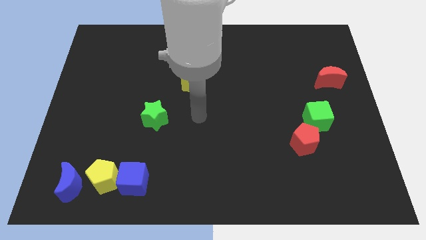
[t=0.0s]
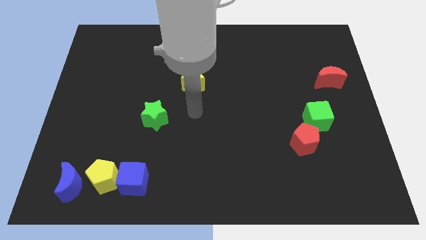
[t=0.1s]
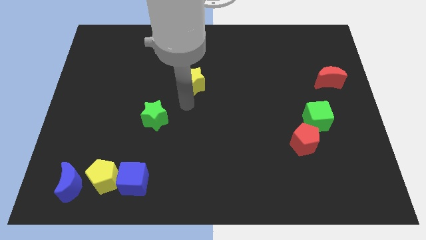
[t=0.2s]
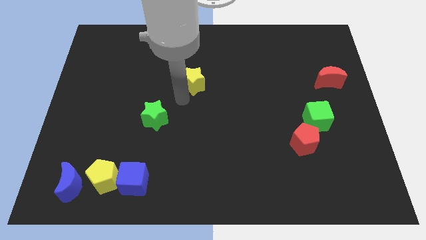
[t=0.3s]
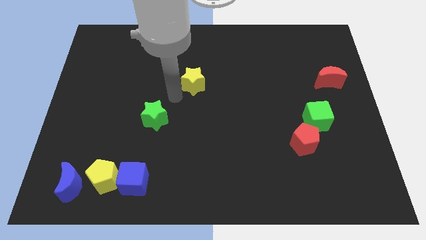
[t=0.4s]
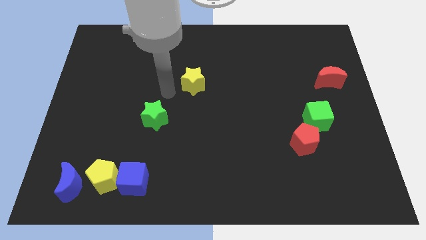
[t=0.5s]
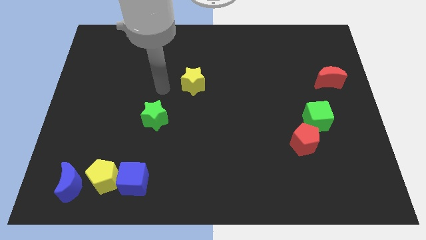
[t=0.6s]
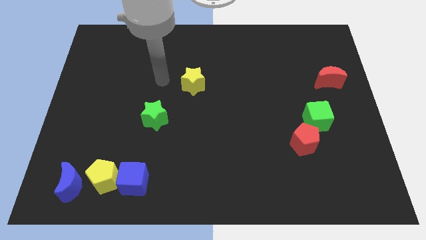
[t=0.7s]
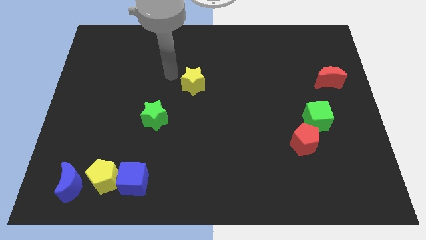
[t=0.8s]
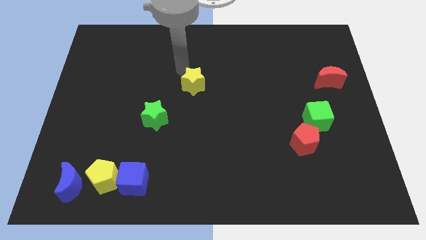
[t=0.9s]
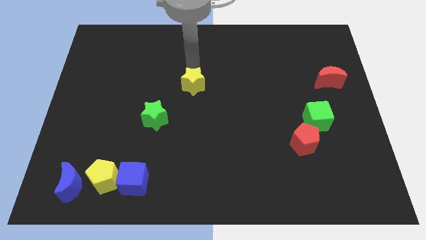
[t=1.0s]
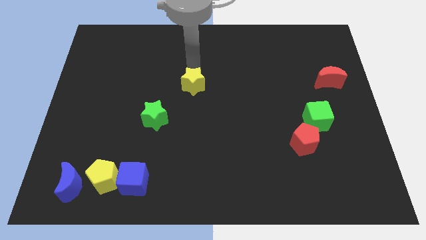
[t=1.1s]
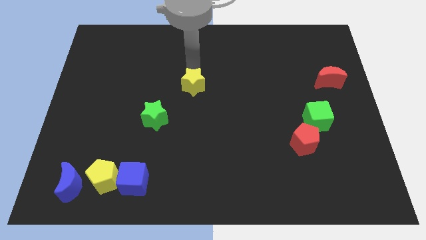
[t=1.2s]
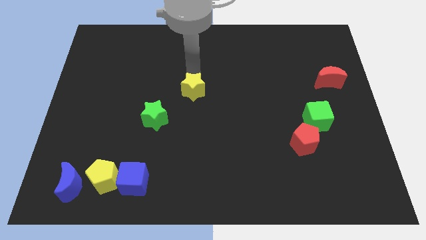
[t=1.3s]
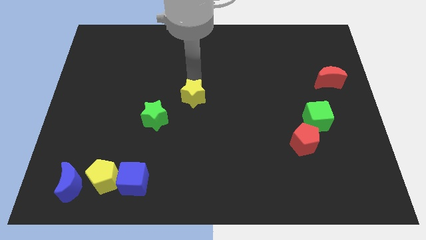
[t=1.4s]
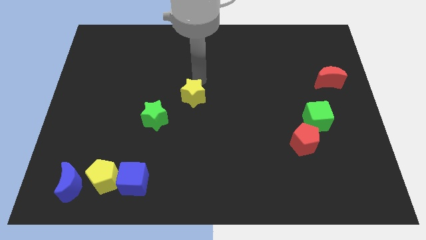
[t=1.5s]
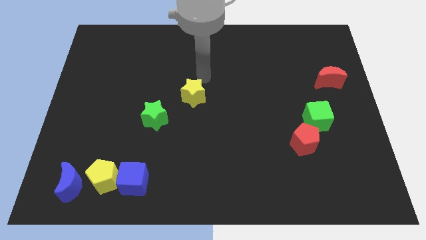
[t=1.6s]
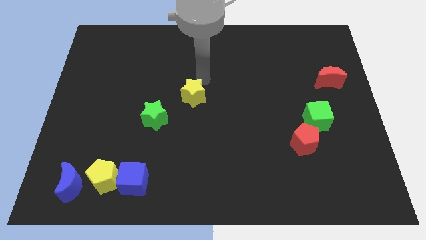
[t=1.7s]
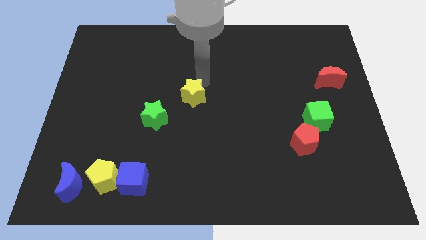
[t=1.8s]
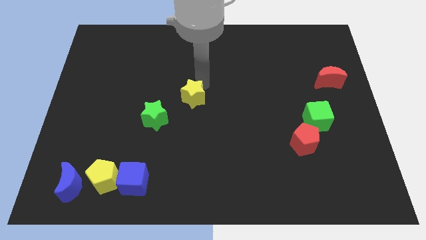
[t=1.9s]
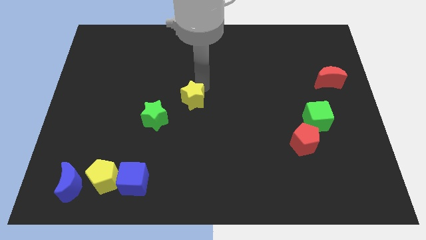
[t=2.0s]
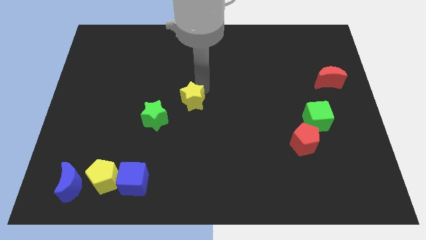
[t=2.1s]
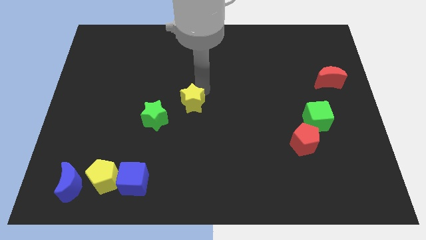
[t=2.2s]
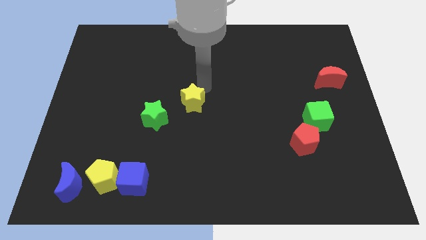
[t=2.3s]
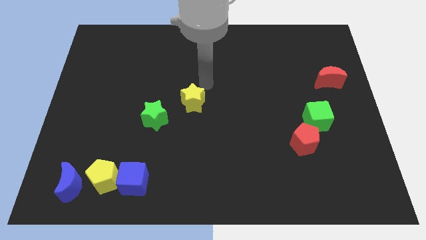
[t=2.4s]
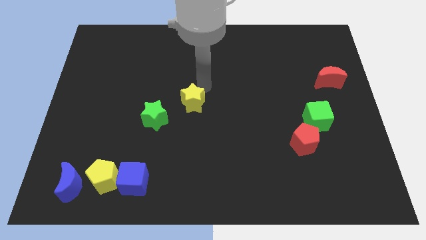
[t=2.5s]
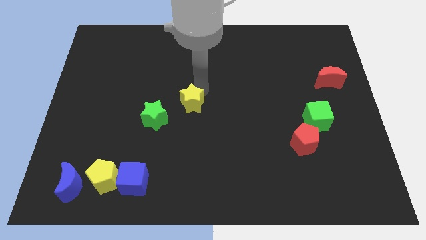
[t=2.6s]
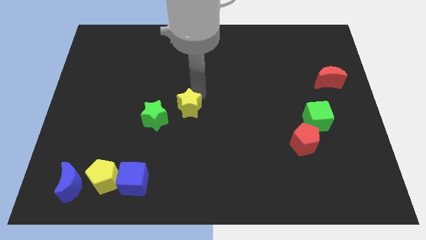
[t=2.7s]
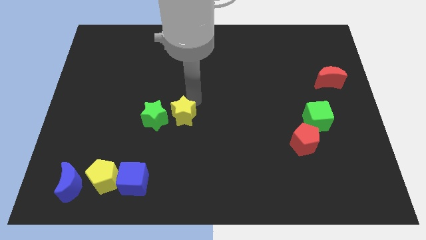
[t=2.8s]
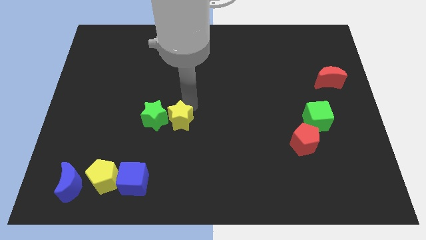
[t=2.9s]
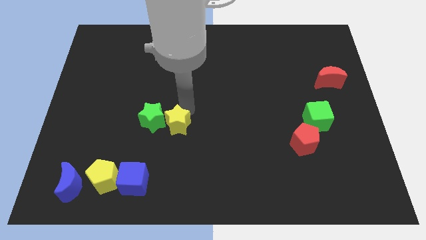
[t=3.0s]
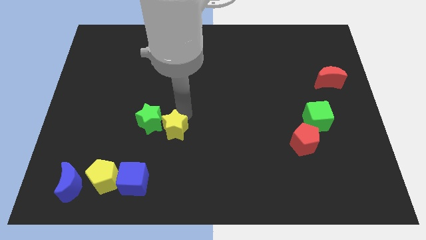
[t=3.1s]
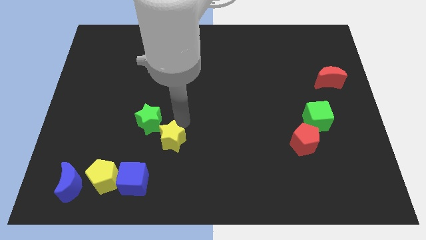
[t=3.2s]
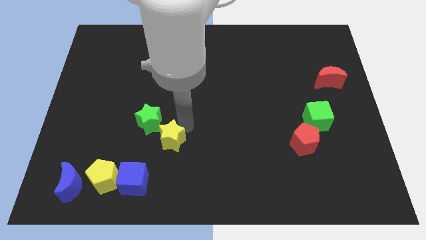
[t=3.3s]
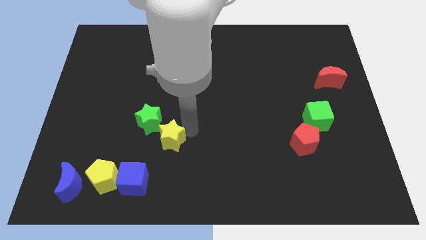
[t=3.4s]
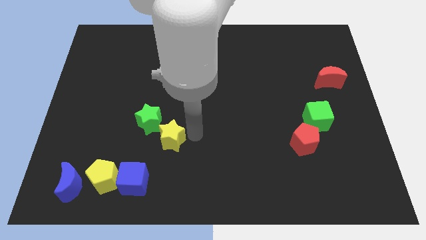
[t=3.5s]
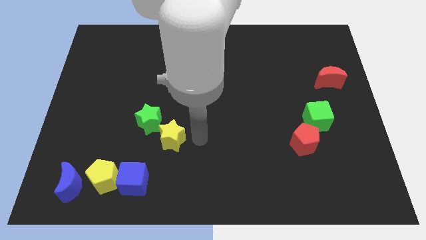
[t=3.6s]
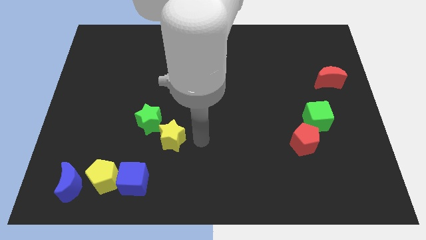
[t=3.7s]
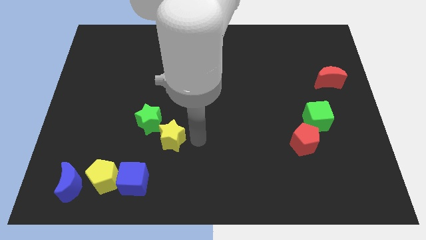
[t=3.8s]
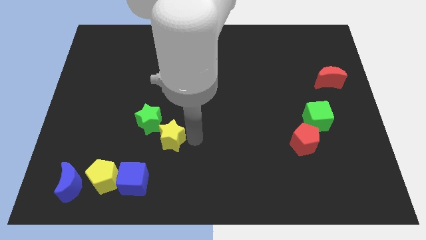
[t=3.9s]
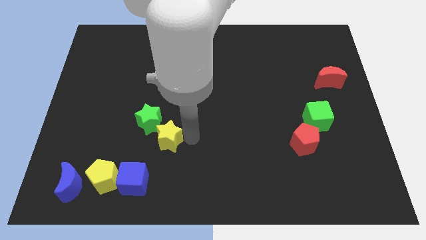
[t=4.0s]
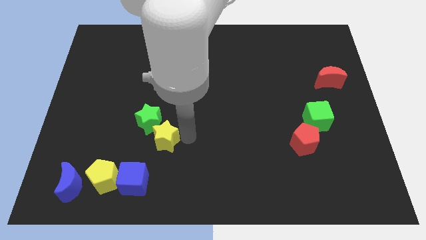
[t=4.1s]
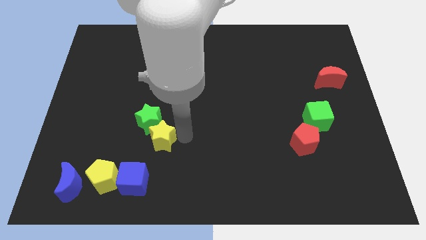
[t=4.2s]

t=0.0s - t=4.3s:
push the yellow star to the top of the blue cube

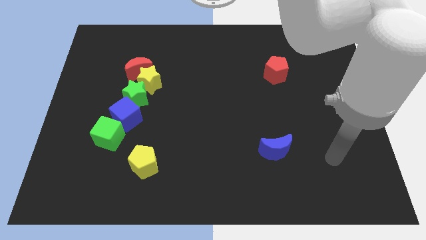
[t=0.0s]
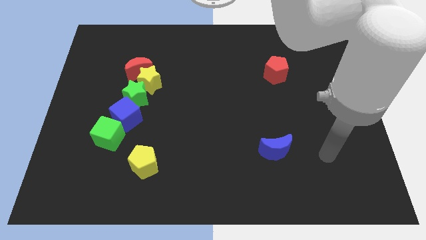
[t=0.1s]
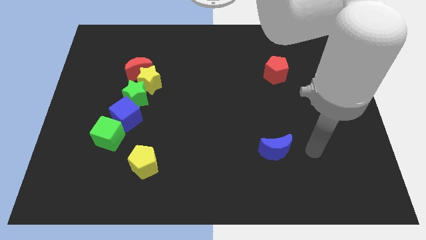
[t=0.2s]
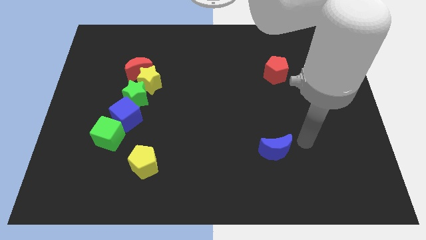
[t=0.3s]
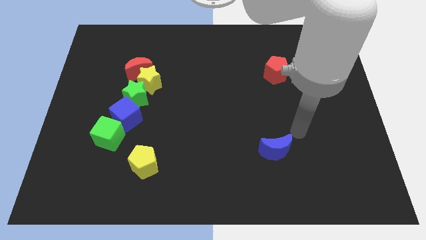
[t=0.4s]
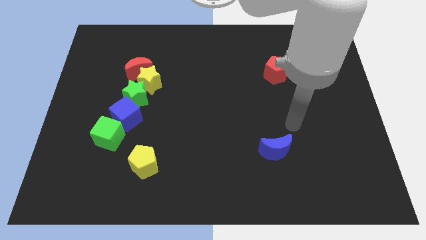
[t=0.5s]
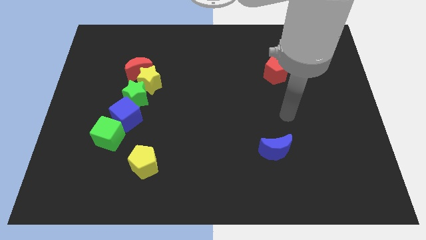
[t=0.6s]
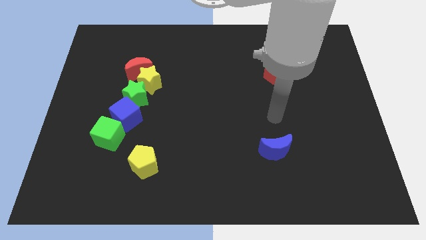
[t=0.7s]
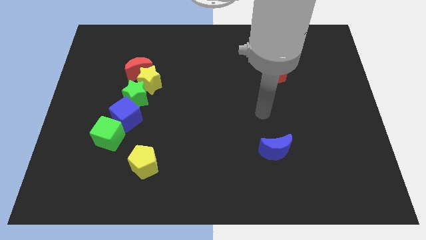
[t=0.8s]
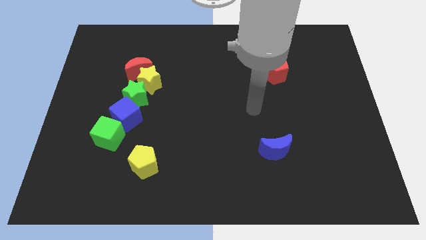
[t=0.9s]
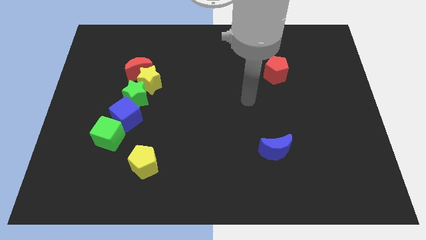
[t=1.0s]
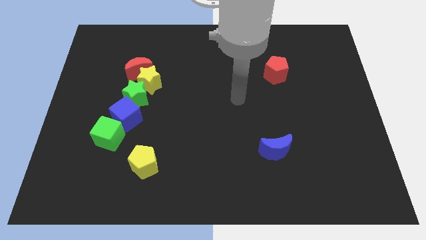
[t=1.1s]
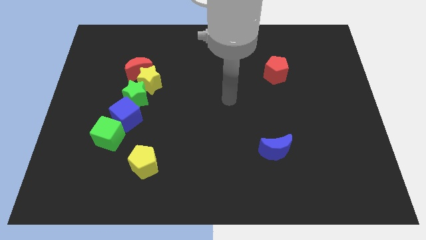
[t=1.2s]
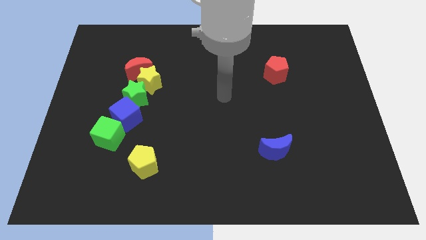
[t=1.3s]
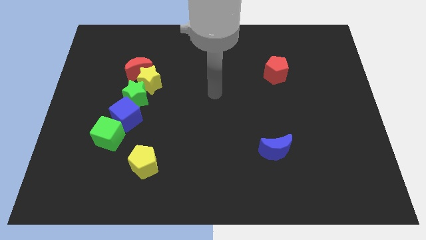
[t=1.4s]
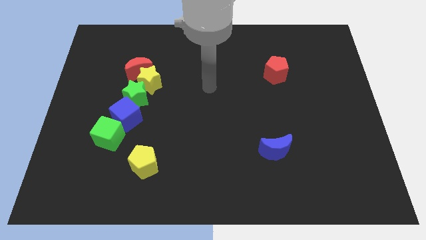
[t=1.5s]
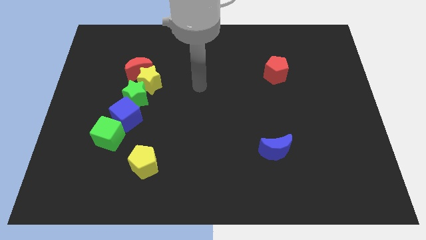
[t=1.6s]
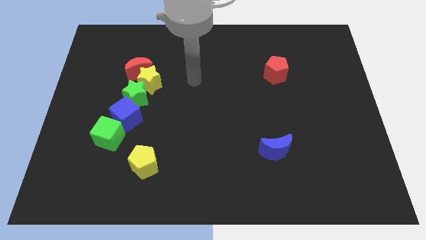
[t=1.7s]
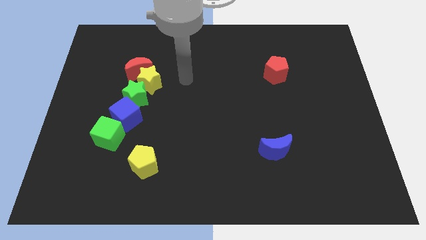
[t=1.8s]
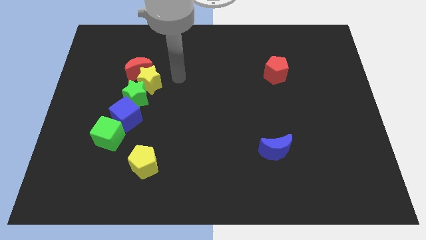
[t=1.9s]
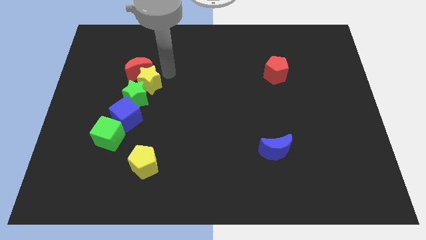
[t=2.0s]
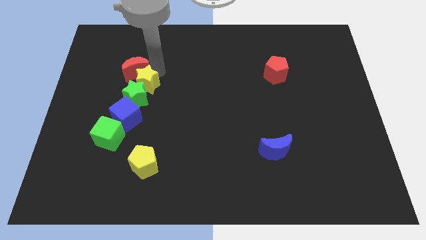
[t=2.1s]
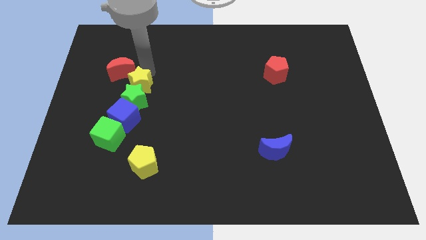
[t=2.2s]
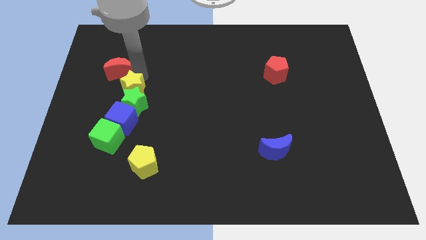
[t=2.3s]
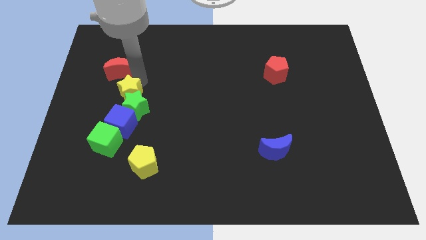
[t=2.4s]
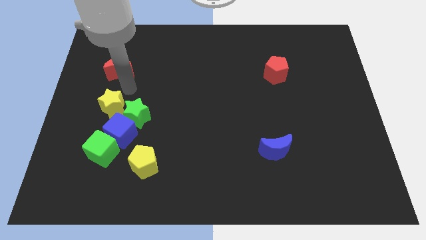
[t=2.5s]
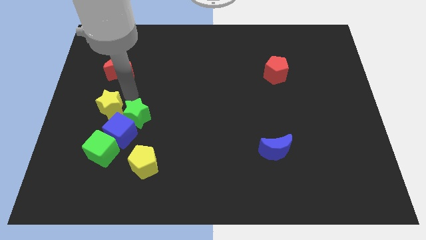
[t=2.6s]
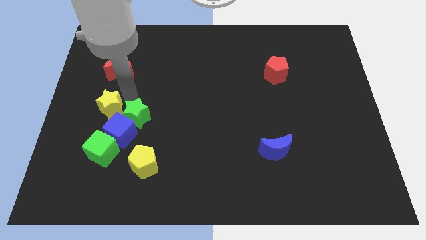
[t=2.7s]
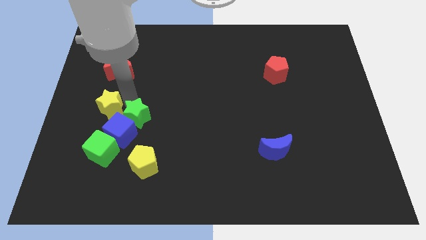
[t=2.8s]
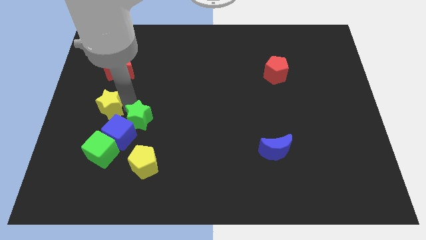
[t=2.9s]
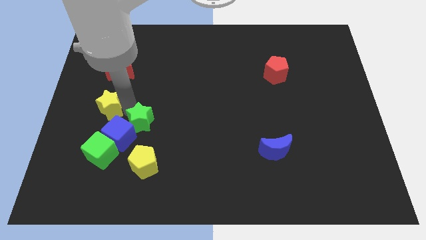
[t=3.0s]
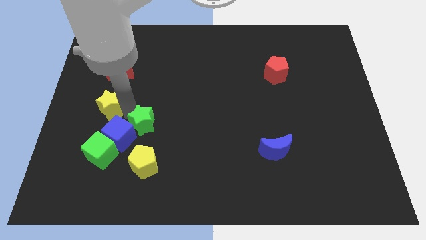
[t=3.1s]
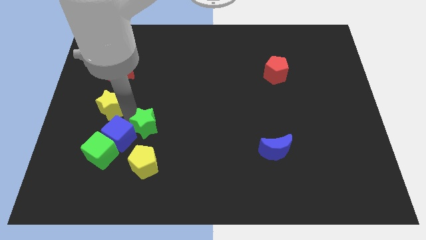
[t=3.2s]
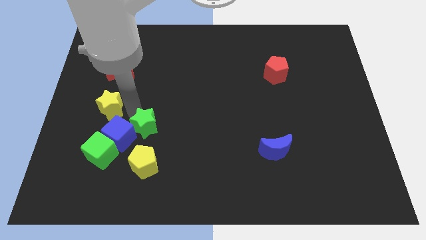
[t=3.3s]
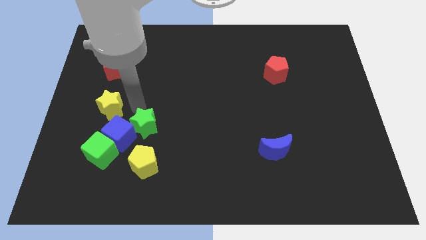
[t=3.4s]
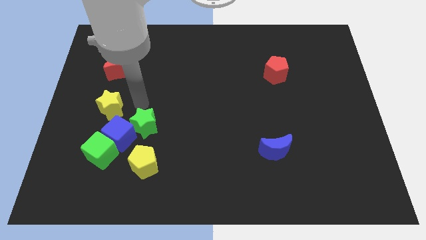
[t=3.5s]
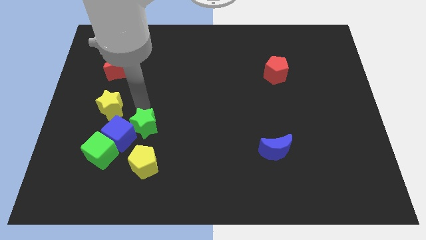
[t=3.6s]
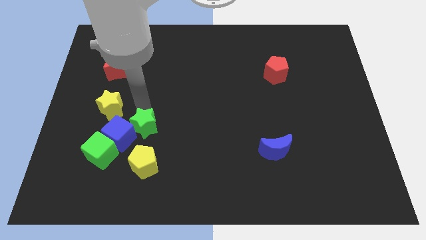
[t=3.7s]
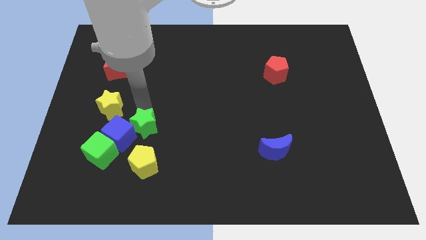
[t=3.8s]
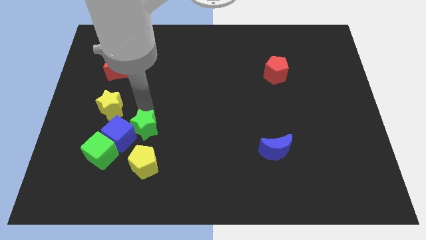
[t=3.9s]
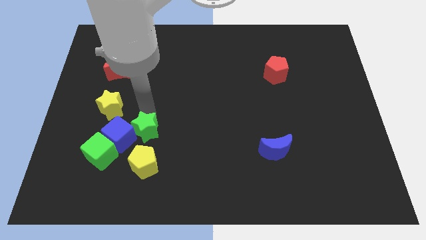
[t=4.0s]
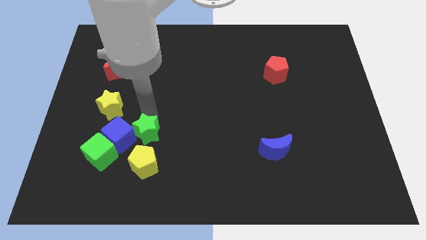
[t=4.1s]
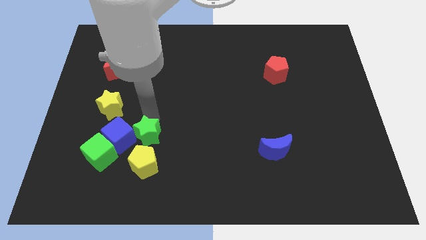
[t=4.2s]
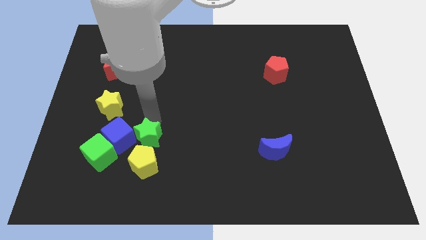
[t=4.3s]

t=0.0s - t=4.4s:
push the green star right of the green cube
